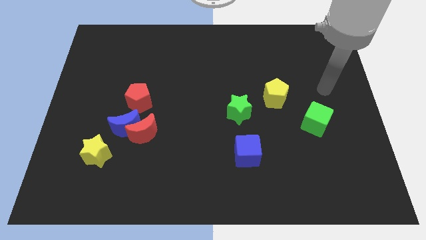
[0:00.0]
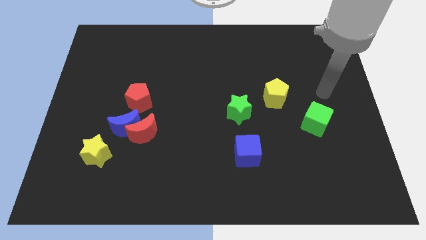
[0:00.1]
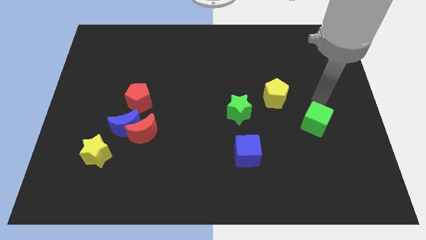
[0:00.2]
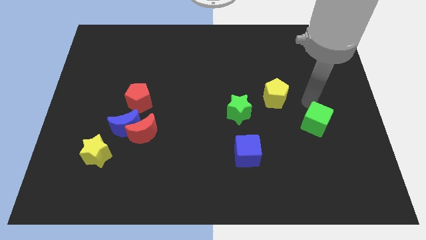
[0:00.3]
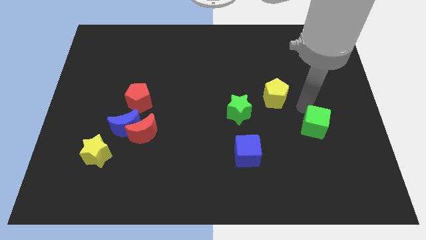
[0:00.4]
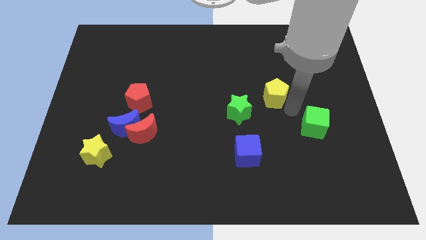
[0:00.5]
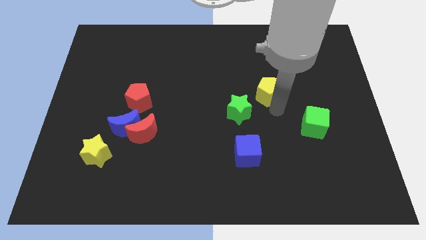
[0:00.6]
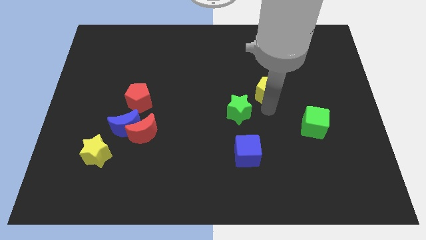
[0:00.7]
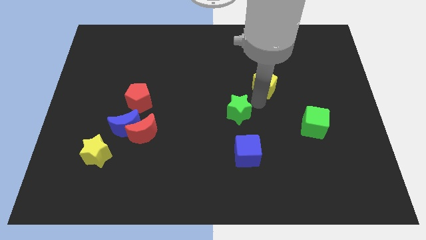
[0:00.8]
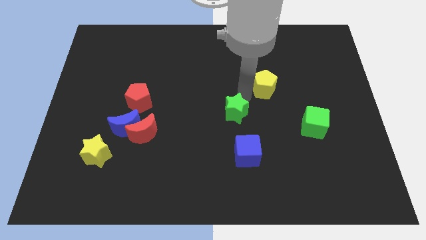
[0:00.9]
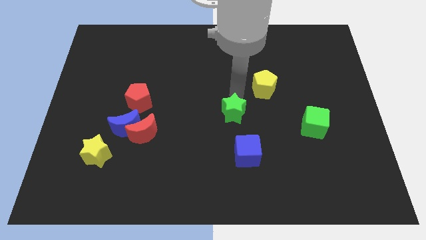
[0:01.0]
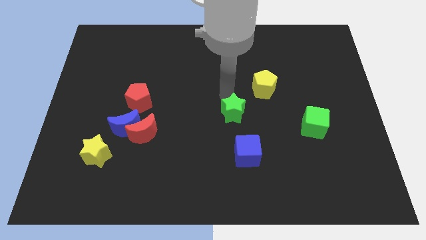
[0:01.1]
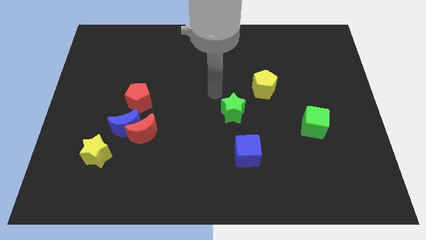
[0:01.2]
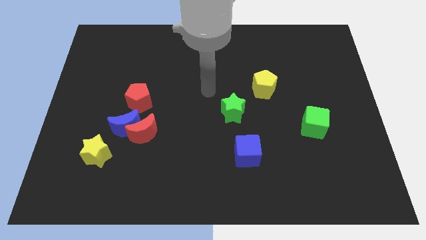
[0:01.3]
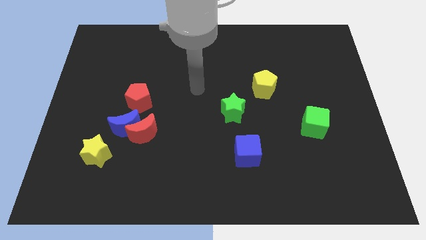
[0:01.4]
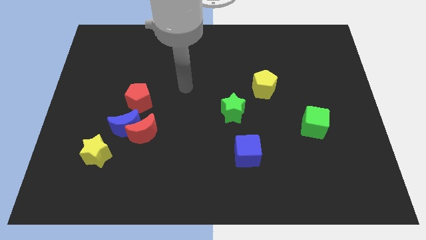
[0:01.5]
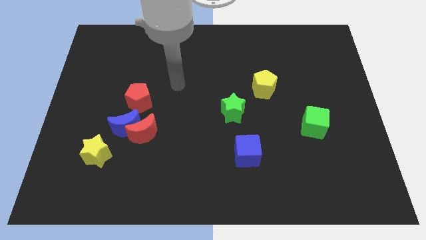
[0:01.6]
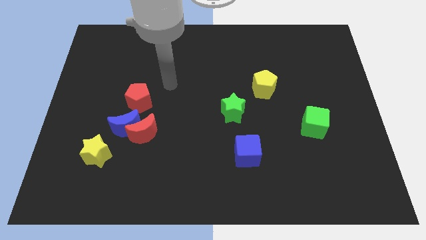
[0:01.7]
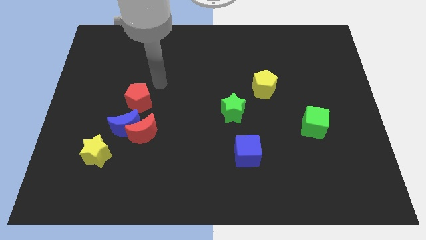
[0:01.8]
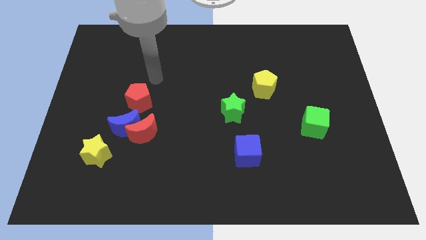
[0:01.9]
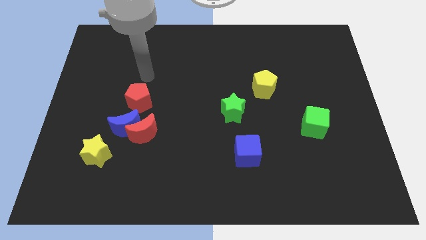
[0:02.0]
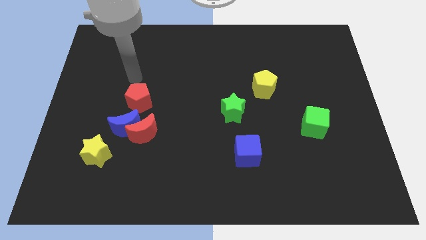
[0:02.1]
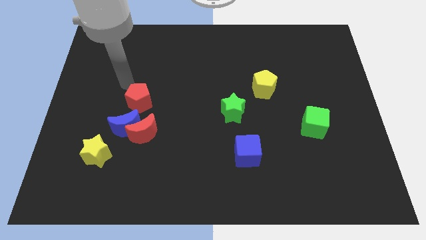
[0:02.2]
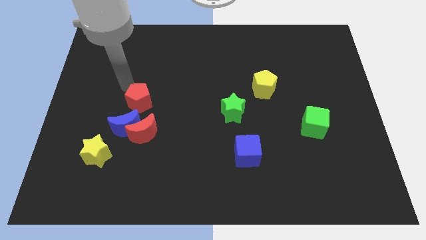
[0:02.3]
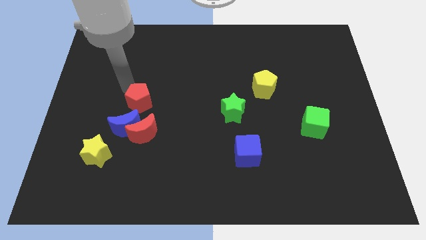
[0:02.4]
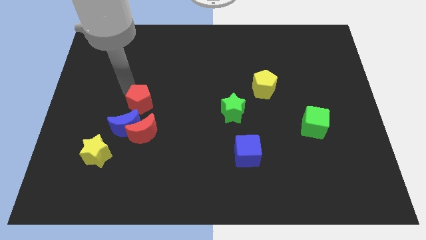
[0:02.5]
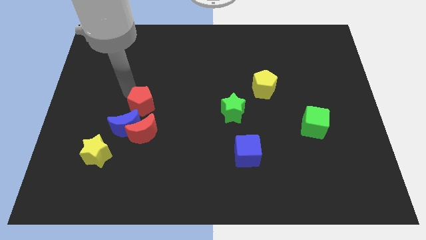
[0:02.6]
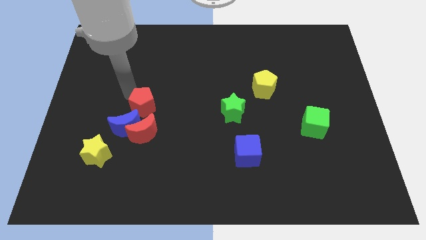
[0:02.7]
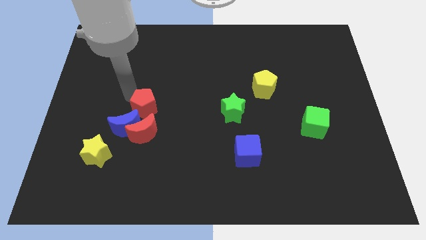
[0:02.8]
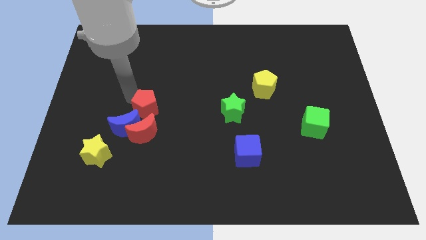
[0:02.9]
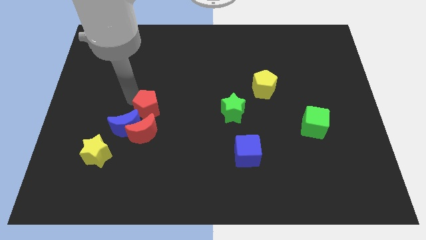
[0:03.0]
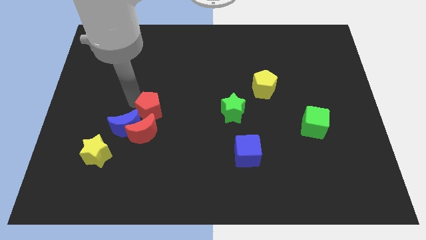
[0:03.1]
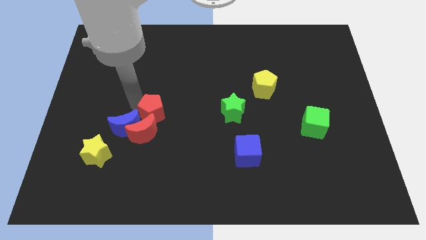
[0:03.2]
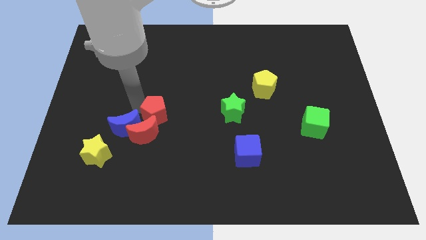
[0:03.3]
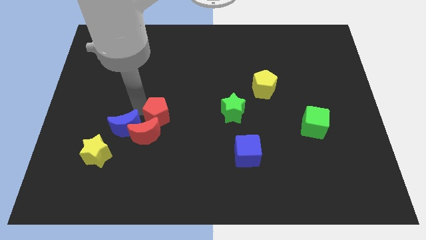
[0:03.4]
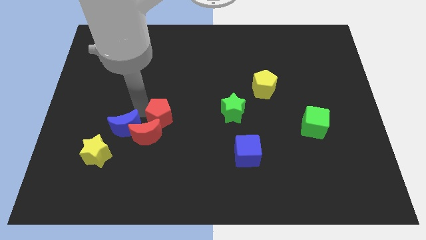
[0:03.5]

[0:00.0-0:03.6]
slide the red pentagon somewhat down and right

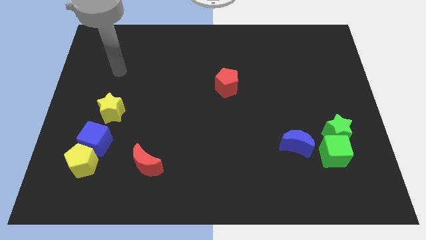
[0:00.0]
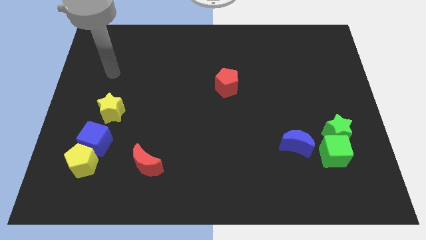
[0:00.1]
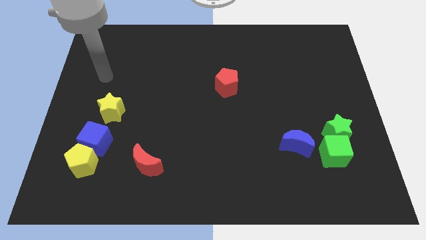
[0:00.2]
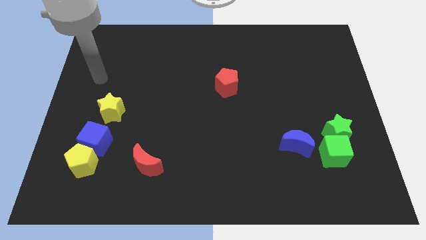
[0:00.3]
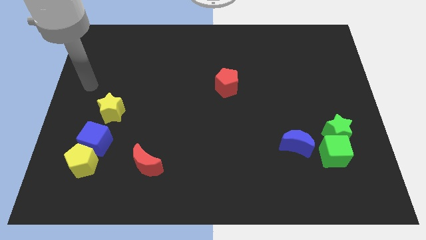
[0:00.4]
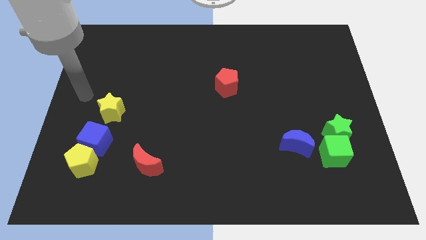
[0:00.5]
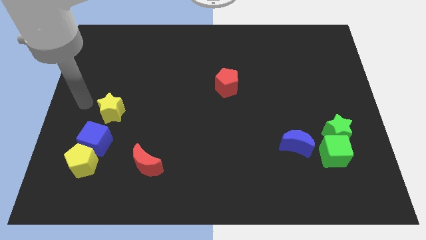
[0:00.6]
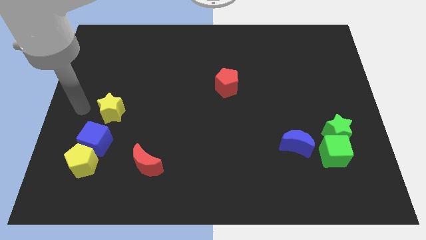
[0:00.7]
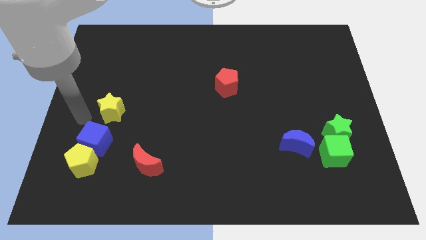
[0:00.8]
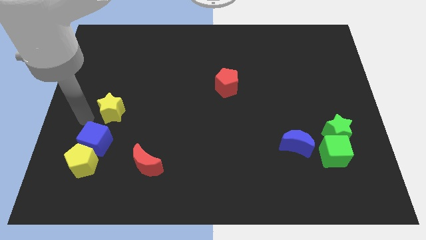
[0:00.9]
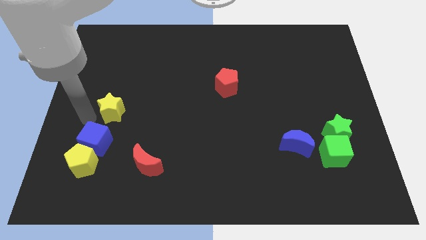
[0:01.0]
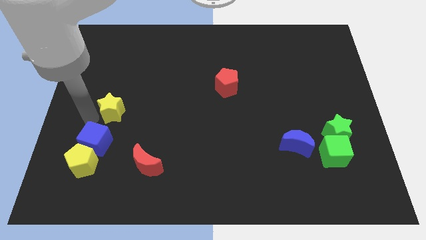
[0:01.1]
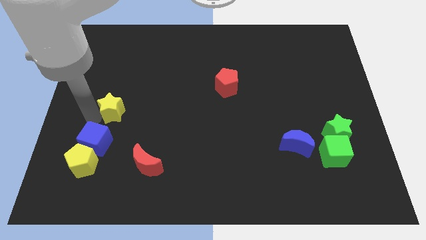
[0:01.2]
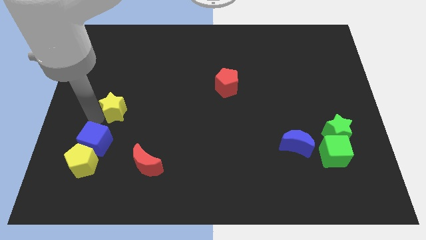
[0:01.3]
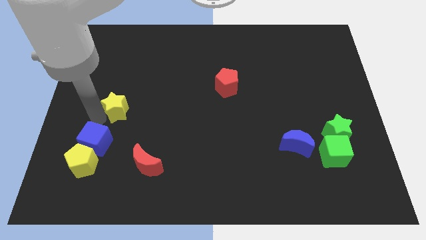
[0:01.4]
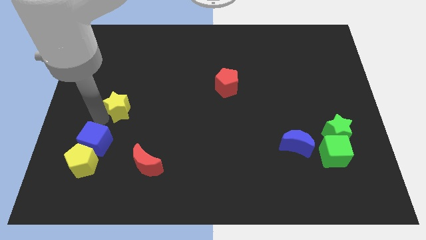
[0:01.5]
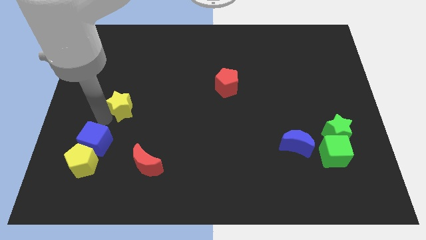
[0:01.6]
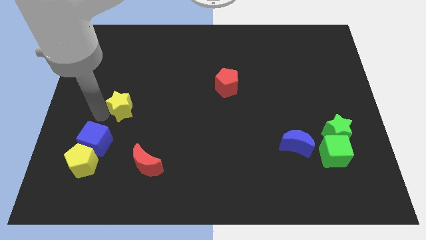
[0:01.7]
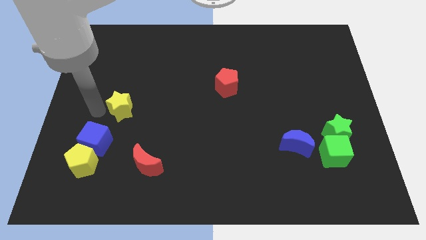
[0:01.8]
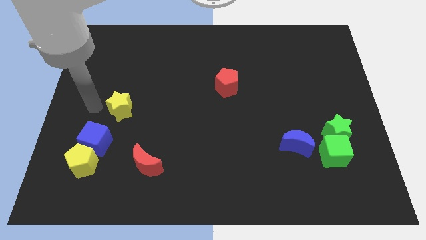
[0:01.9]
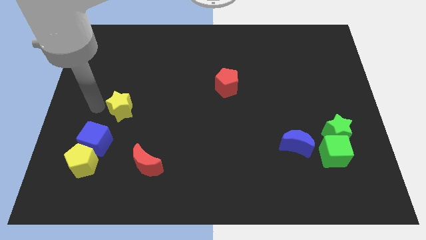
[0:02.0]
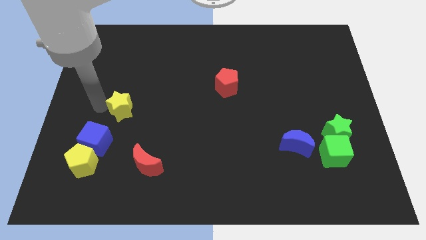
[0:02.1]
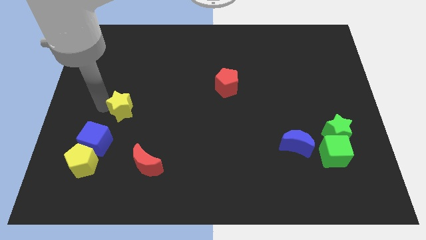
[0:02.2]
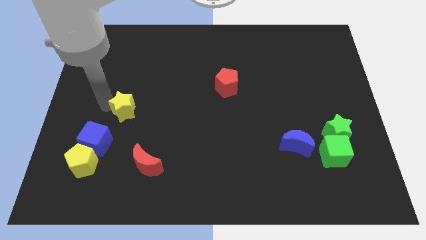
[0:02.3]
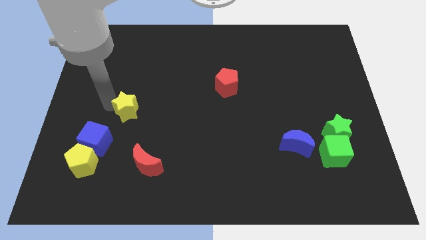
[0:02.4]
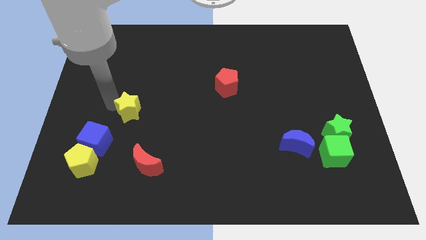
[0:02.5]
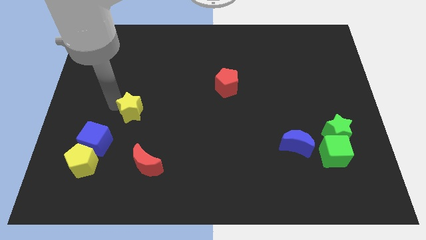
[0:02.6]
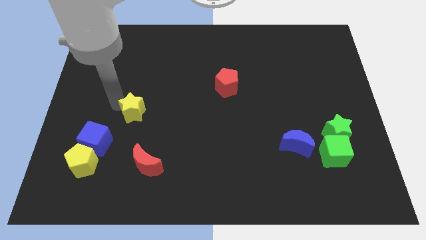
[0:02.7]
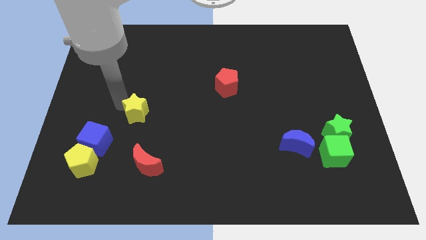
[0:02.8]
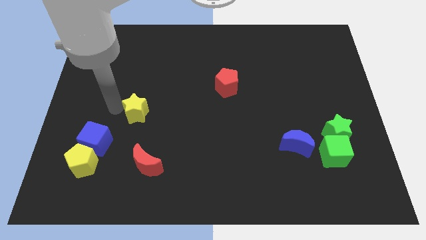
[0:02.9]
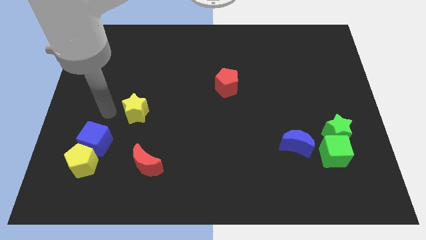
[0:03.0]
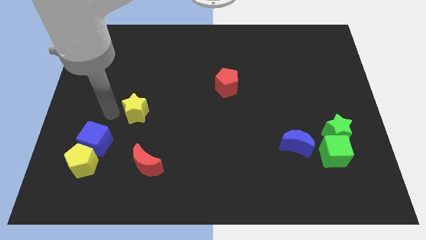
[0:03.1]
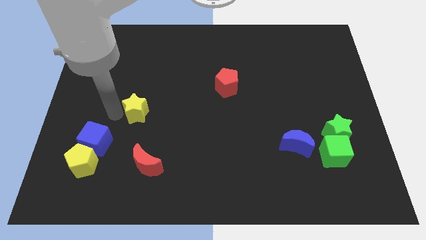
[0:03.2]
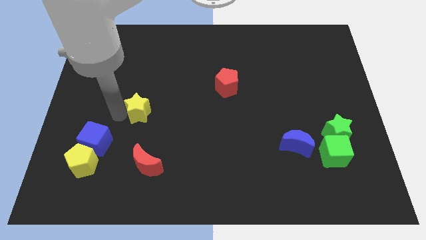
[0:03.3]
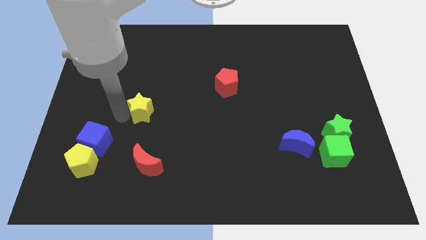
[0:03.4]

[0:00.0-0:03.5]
slightly push the yellow star to the right

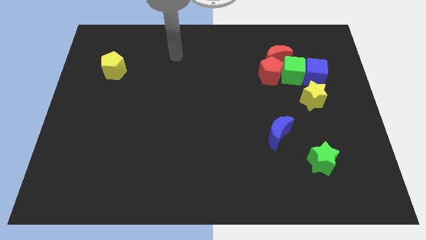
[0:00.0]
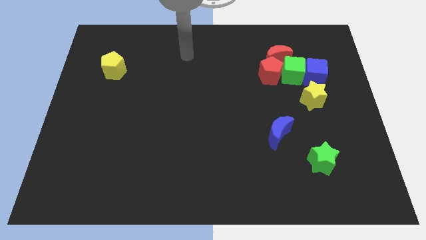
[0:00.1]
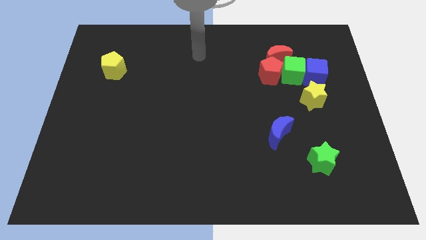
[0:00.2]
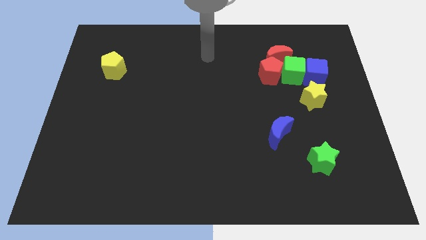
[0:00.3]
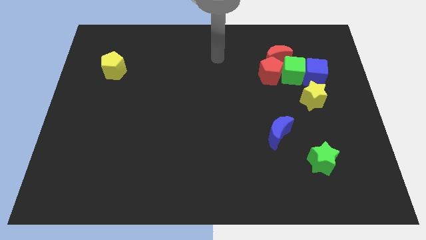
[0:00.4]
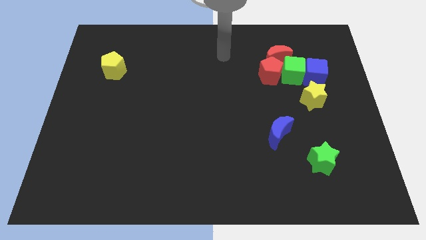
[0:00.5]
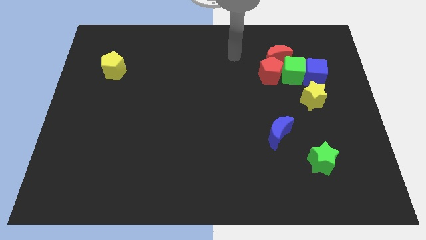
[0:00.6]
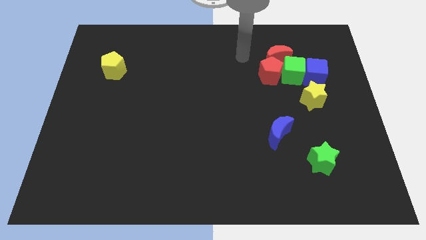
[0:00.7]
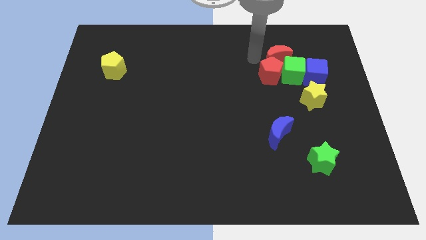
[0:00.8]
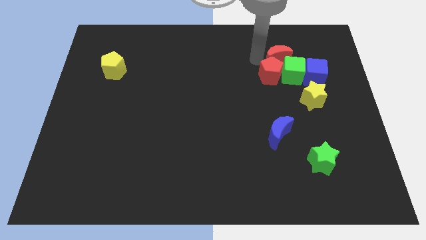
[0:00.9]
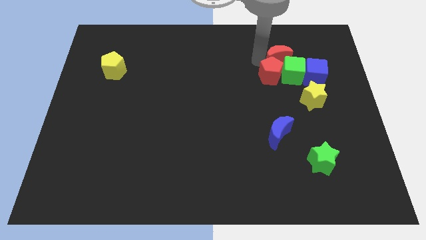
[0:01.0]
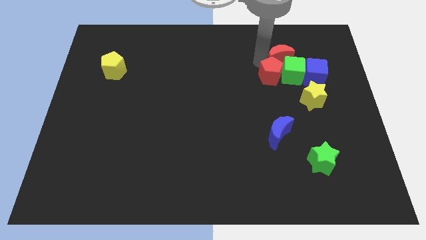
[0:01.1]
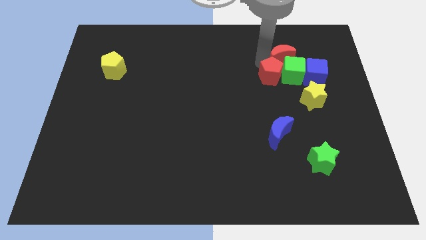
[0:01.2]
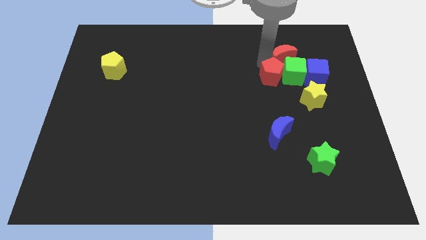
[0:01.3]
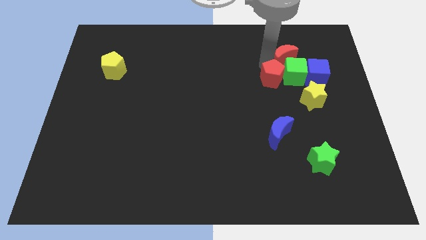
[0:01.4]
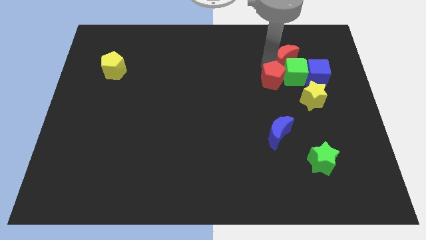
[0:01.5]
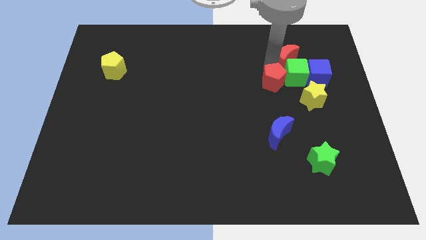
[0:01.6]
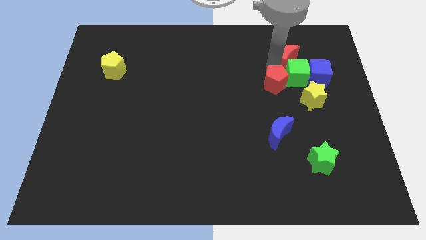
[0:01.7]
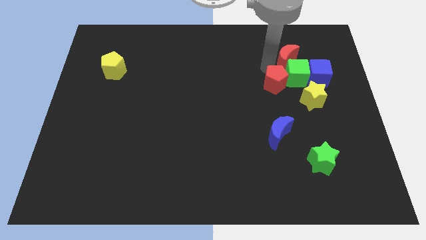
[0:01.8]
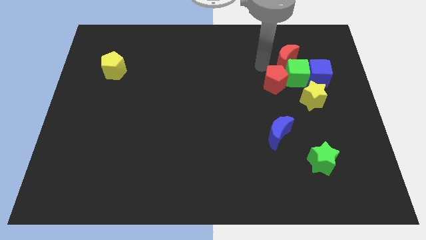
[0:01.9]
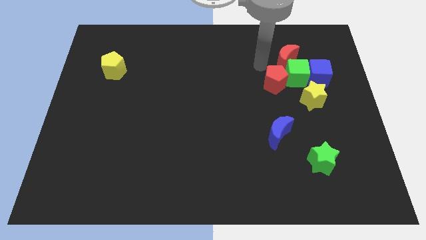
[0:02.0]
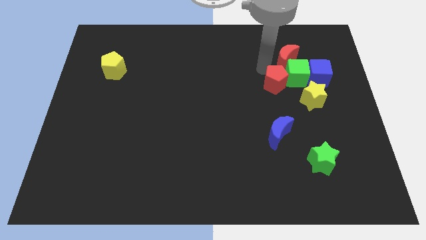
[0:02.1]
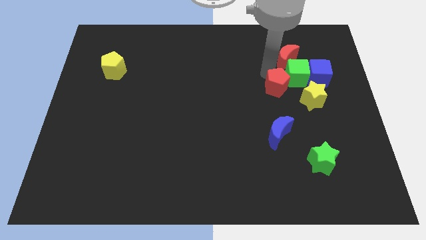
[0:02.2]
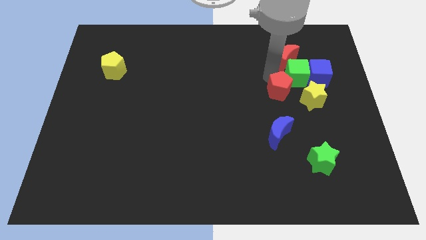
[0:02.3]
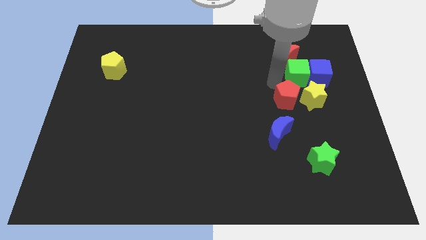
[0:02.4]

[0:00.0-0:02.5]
slightly push the red pentagon diagonally down and to the right
